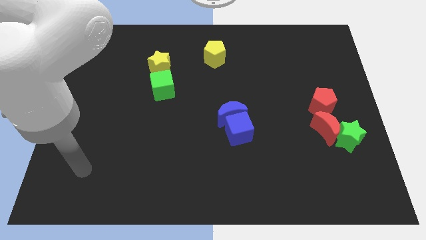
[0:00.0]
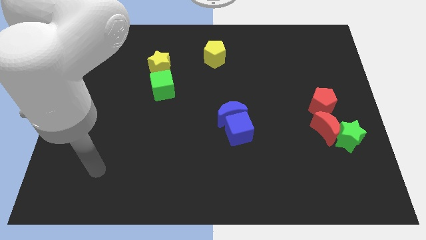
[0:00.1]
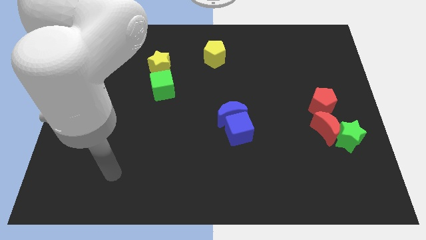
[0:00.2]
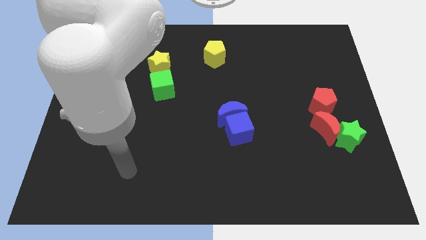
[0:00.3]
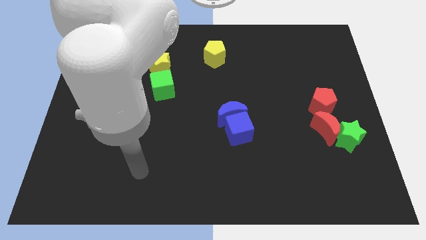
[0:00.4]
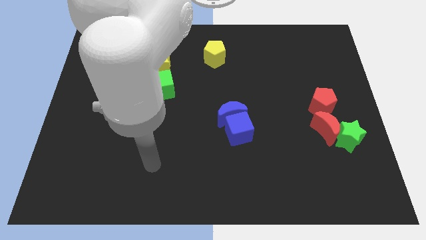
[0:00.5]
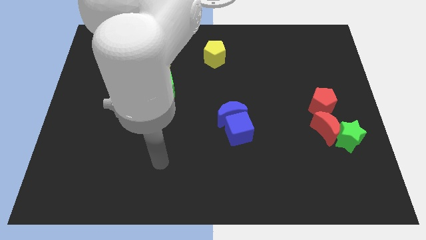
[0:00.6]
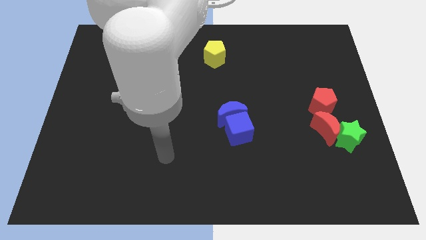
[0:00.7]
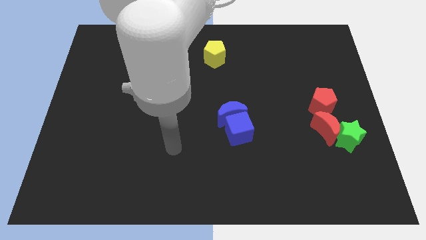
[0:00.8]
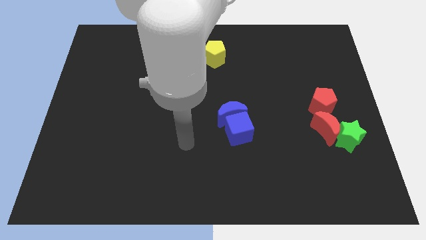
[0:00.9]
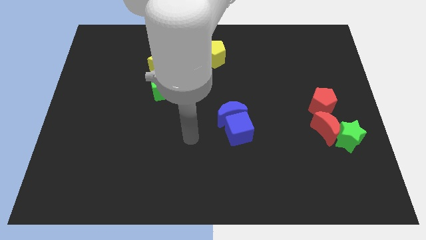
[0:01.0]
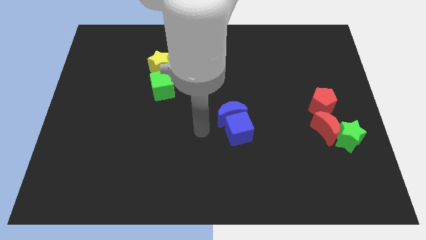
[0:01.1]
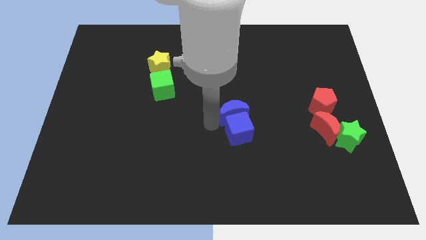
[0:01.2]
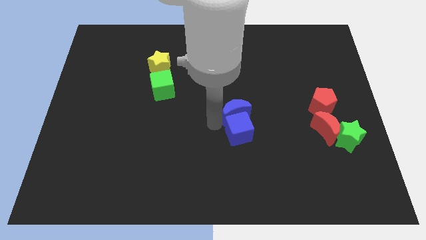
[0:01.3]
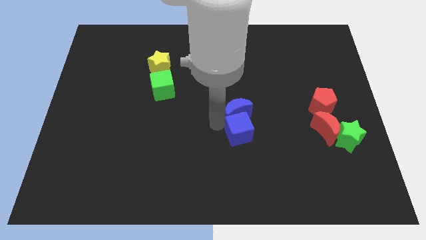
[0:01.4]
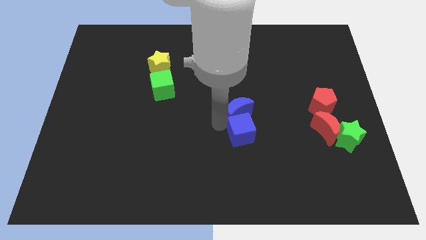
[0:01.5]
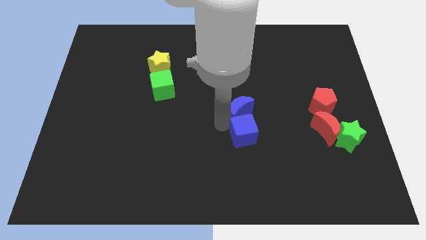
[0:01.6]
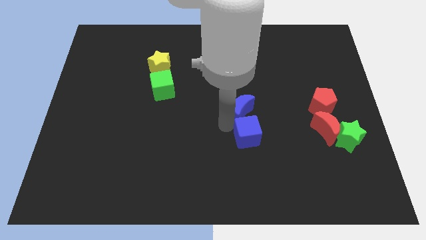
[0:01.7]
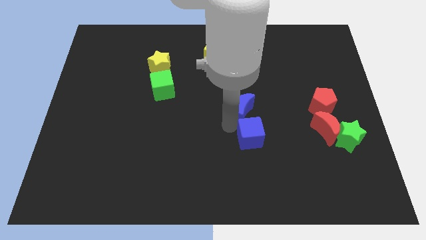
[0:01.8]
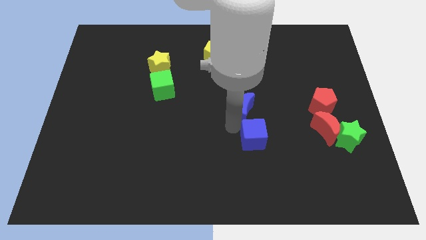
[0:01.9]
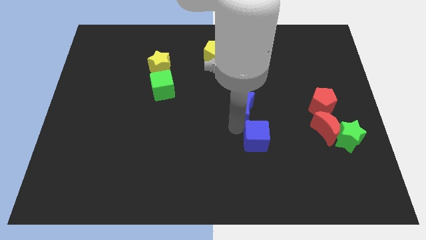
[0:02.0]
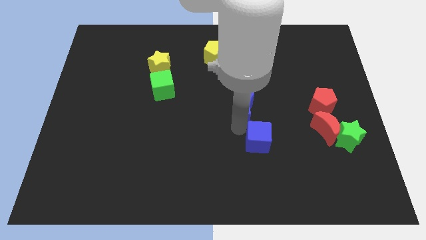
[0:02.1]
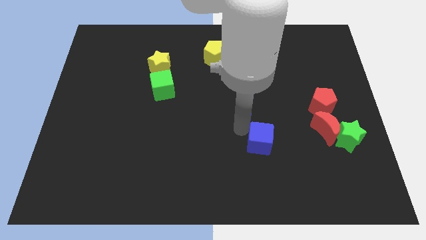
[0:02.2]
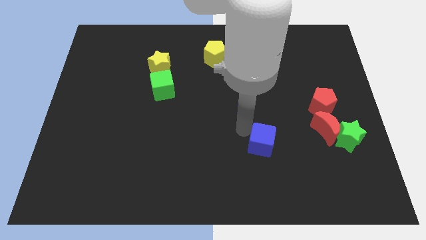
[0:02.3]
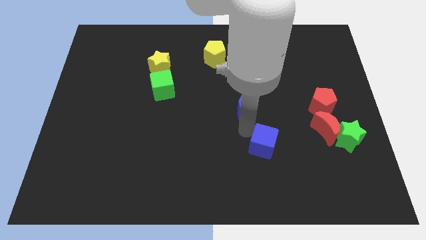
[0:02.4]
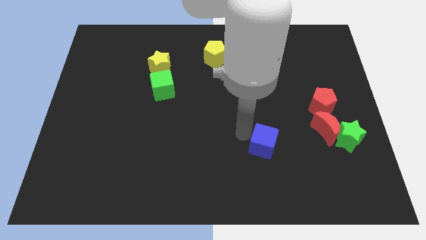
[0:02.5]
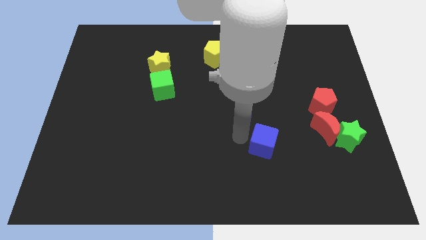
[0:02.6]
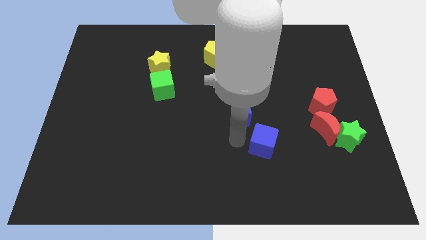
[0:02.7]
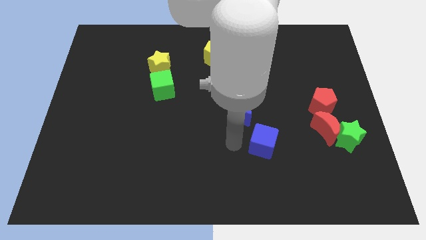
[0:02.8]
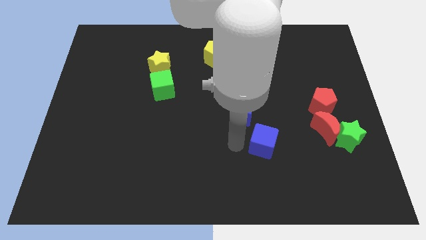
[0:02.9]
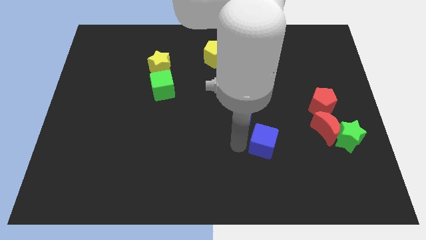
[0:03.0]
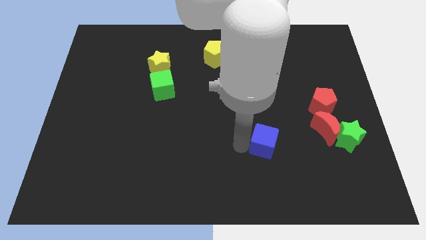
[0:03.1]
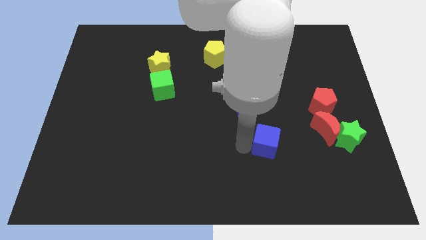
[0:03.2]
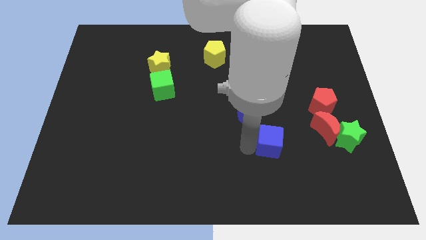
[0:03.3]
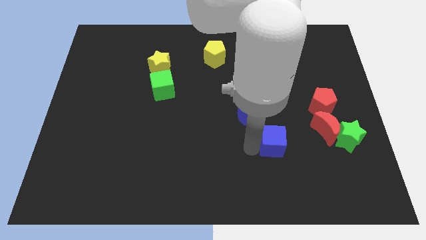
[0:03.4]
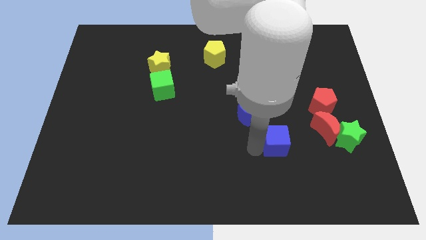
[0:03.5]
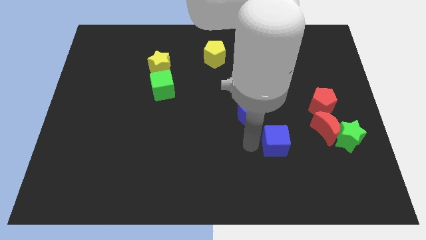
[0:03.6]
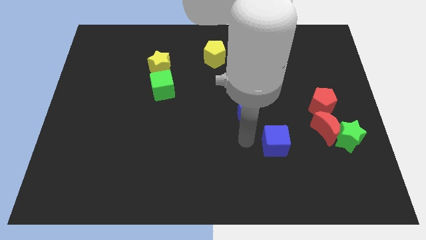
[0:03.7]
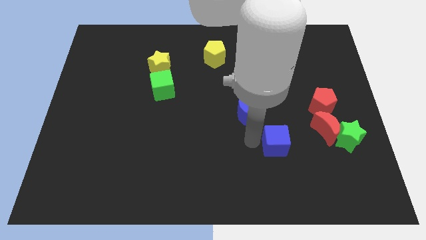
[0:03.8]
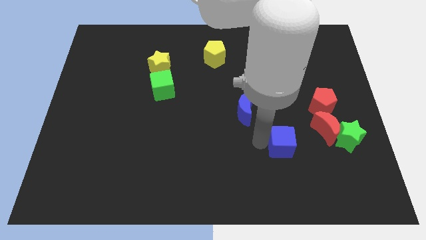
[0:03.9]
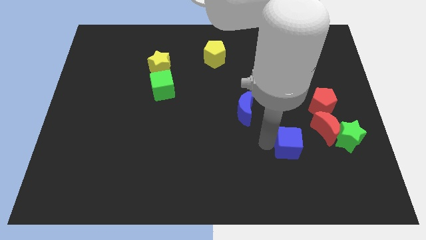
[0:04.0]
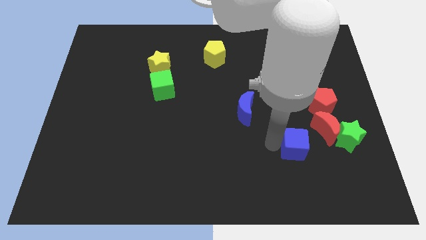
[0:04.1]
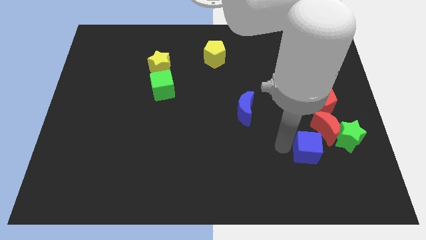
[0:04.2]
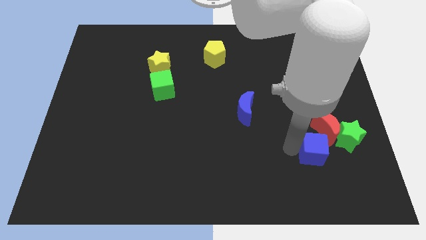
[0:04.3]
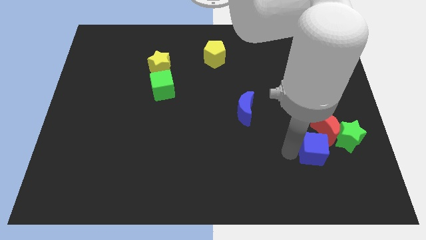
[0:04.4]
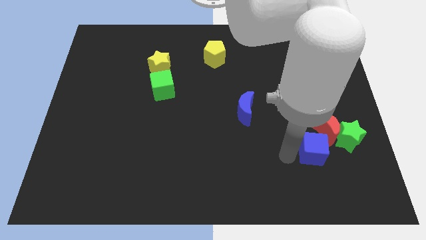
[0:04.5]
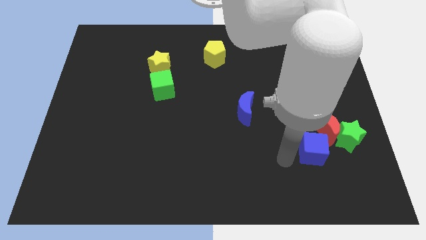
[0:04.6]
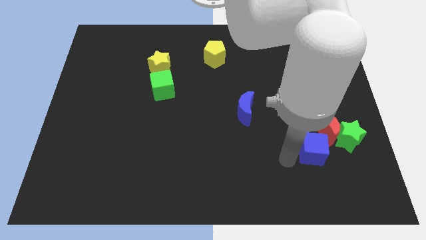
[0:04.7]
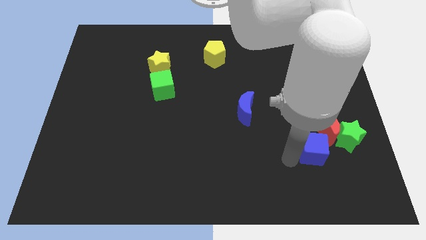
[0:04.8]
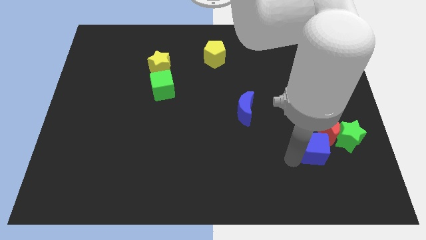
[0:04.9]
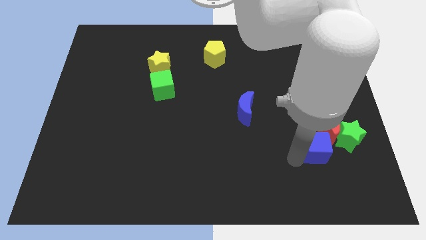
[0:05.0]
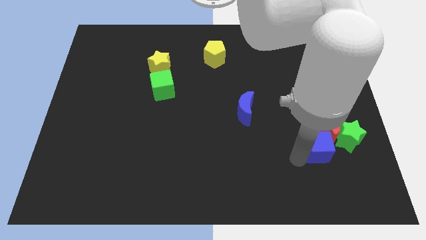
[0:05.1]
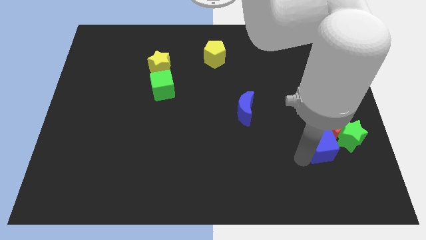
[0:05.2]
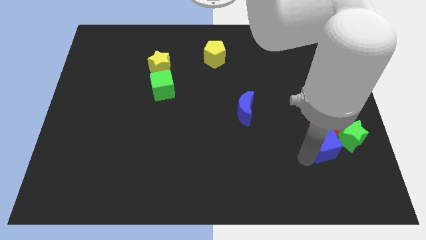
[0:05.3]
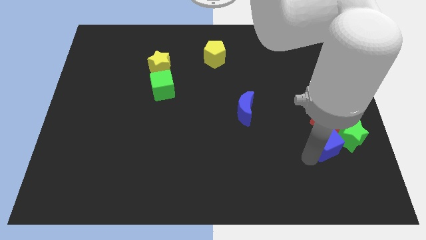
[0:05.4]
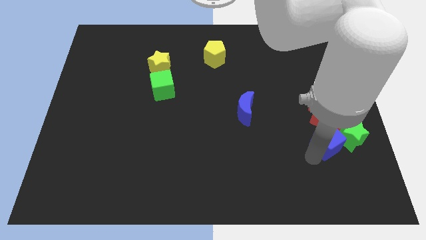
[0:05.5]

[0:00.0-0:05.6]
put the blue cube towards the green star
